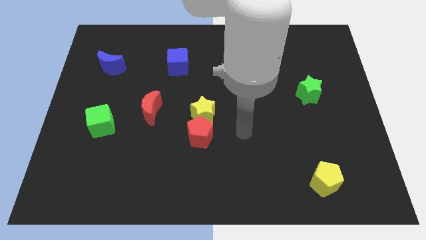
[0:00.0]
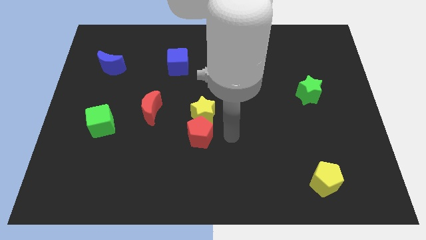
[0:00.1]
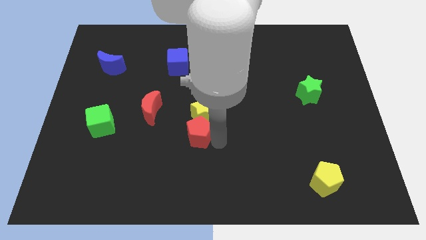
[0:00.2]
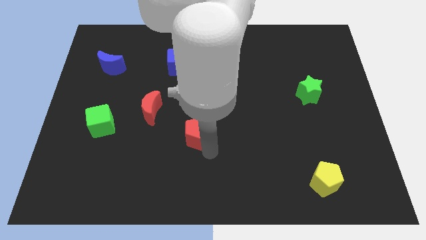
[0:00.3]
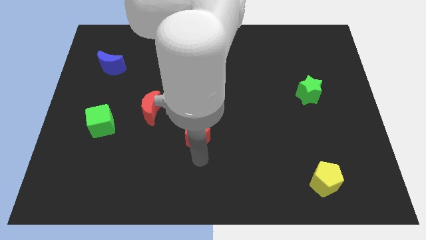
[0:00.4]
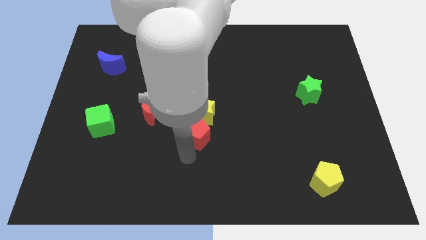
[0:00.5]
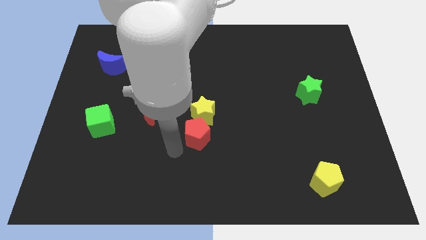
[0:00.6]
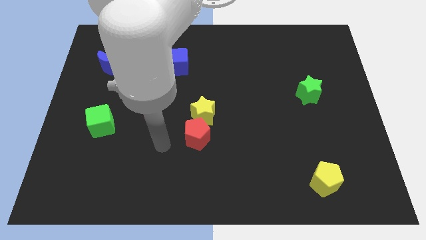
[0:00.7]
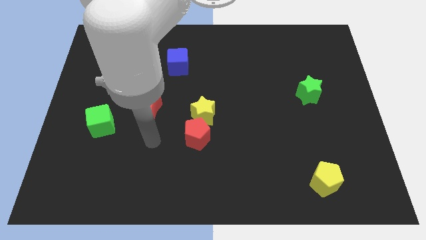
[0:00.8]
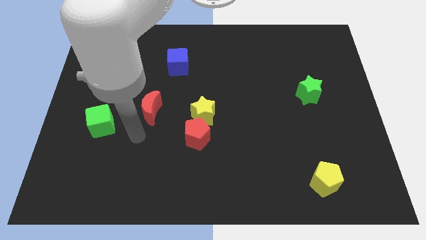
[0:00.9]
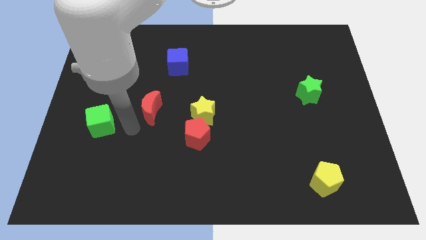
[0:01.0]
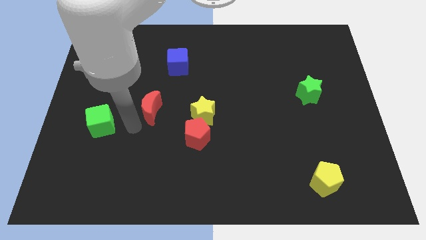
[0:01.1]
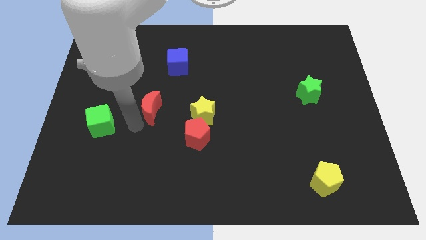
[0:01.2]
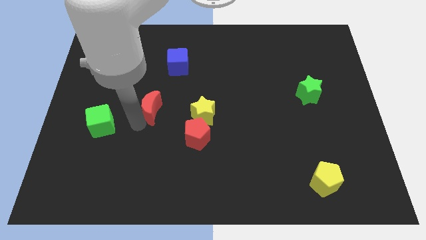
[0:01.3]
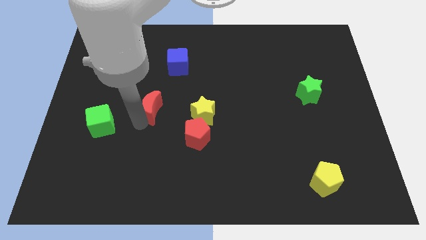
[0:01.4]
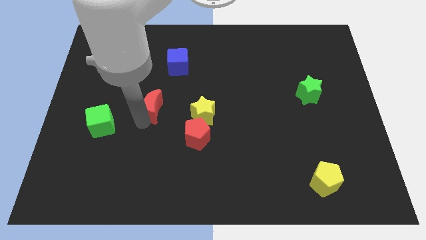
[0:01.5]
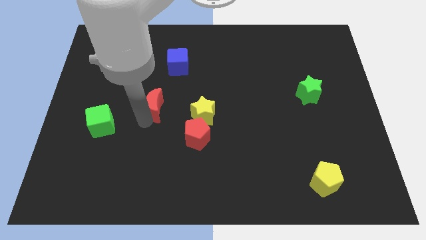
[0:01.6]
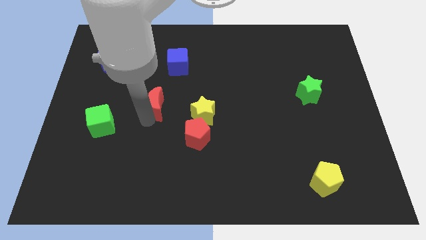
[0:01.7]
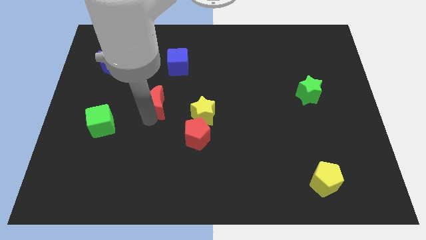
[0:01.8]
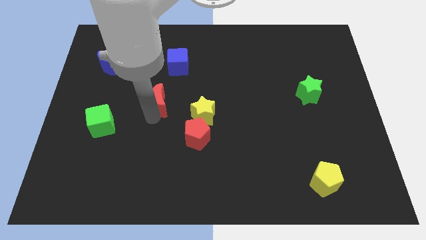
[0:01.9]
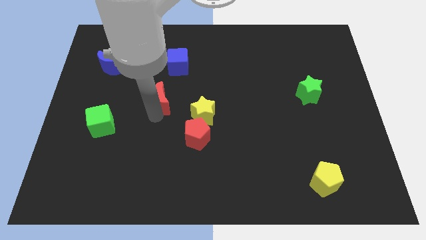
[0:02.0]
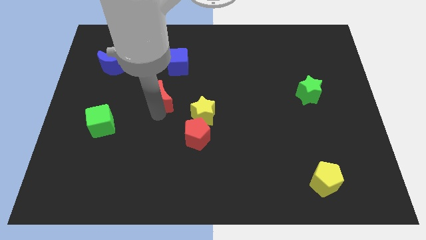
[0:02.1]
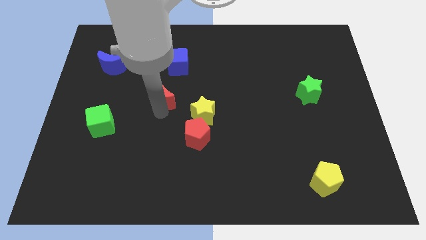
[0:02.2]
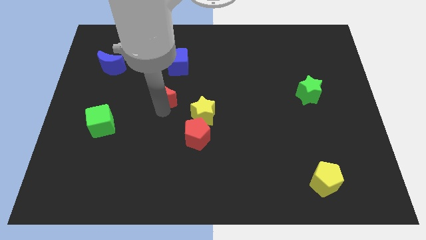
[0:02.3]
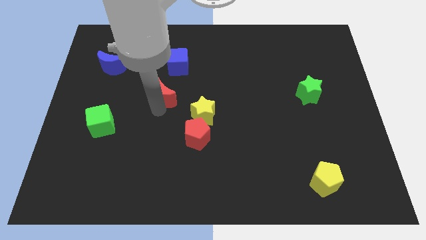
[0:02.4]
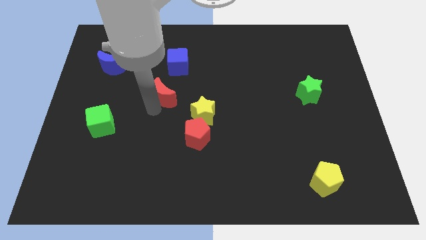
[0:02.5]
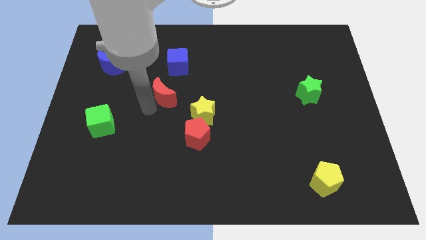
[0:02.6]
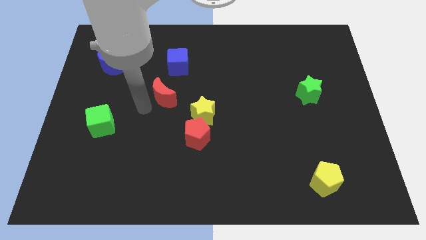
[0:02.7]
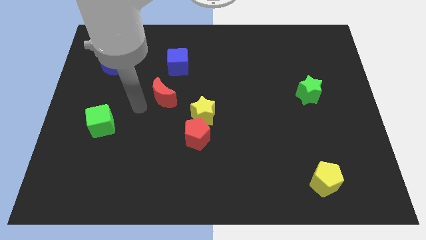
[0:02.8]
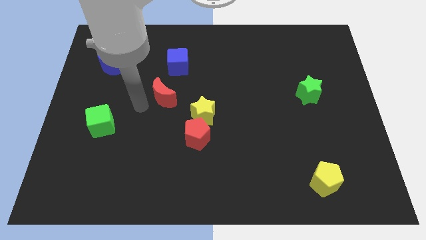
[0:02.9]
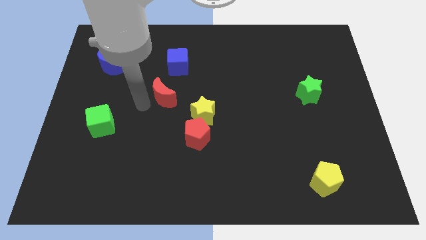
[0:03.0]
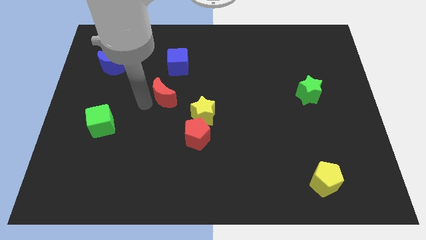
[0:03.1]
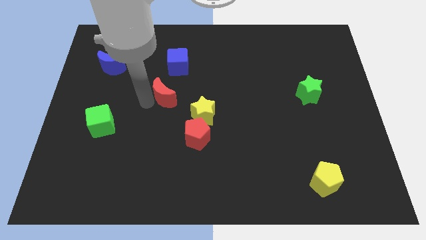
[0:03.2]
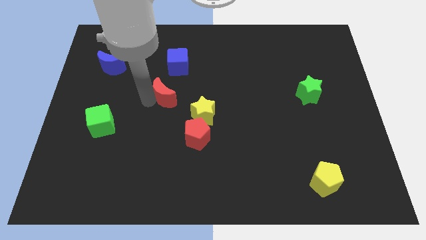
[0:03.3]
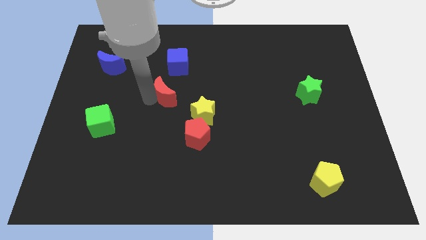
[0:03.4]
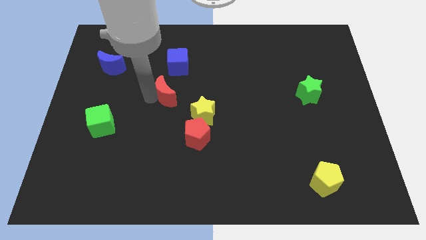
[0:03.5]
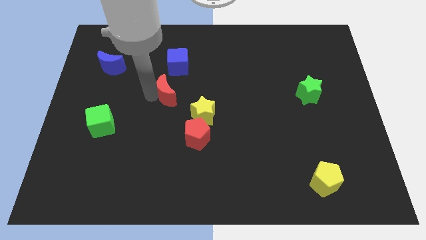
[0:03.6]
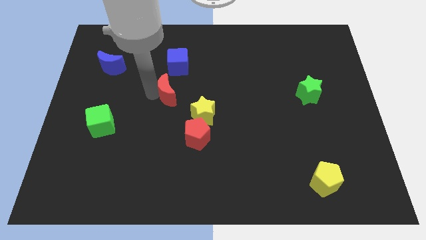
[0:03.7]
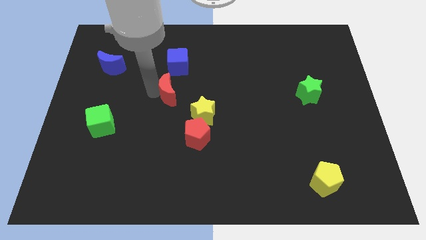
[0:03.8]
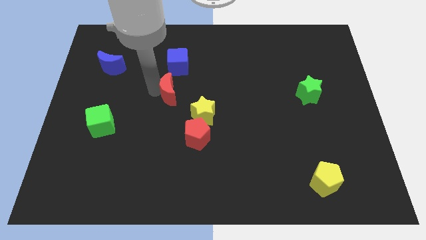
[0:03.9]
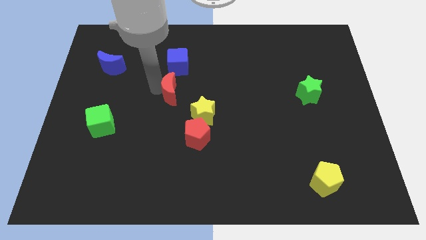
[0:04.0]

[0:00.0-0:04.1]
push the red moon upwards and then to the right slightly

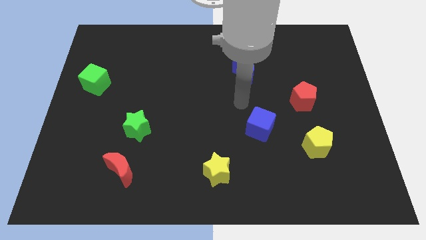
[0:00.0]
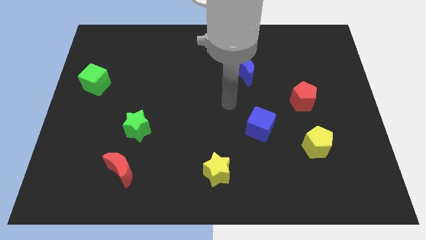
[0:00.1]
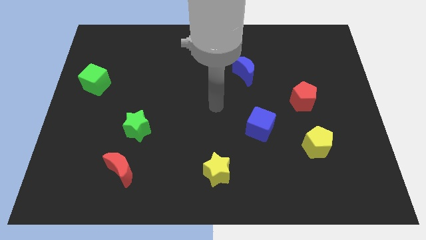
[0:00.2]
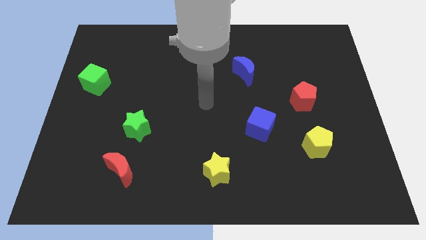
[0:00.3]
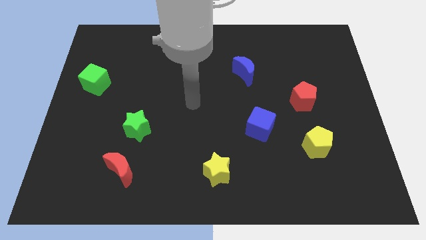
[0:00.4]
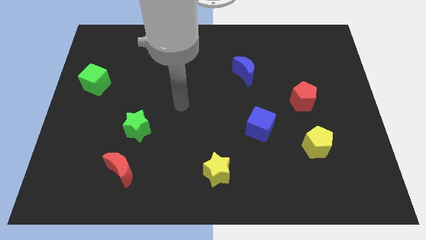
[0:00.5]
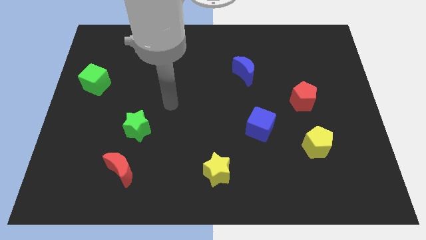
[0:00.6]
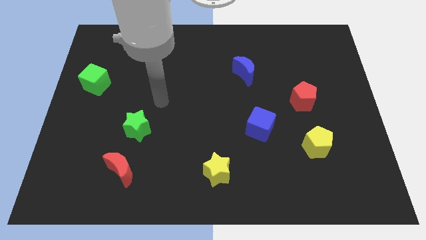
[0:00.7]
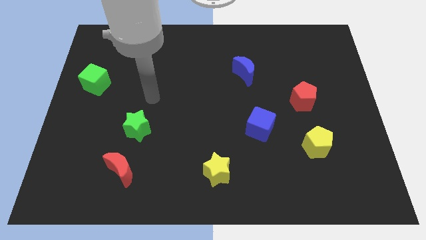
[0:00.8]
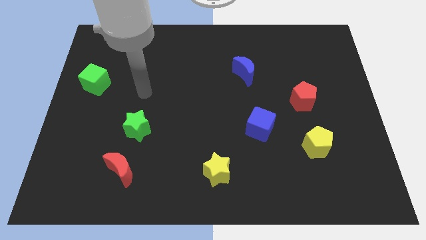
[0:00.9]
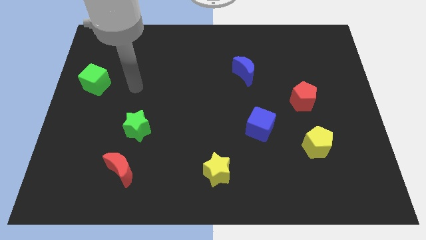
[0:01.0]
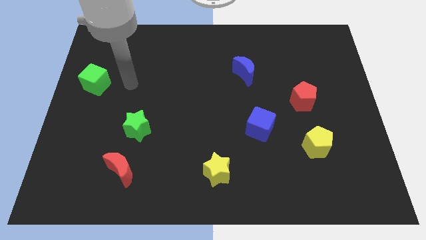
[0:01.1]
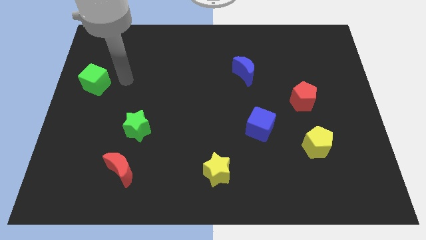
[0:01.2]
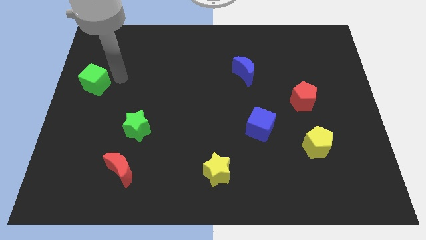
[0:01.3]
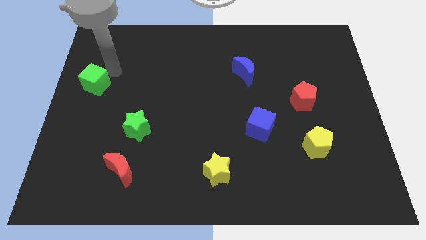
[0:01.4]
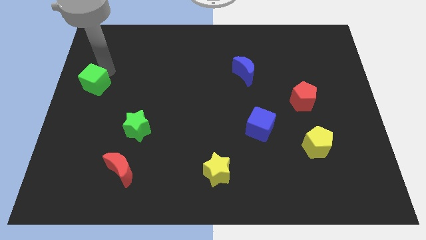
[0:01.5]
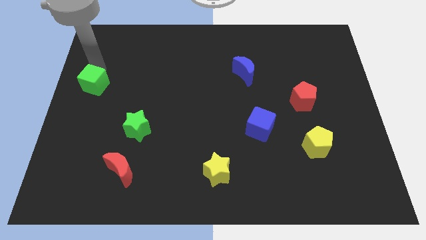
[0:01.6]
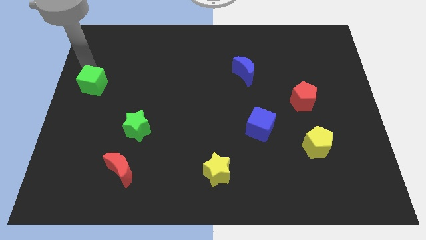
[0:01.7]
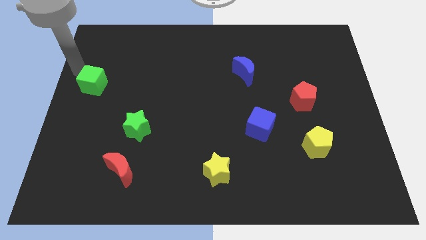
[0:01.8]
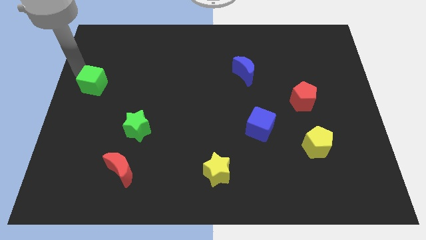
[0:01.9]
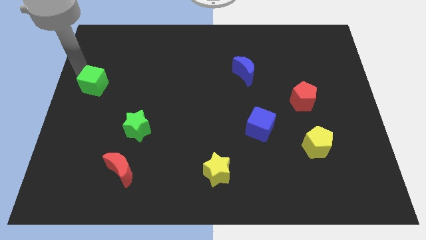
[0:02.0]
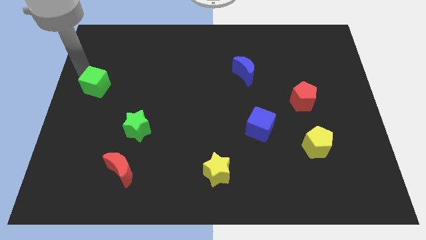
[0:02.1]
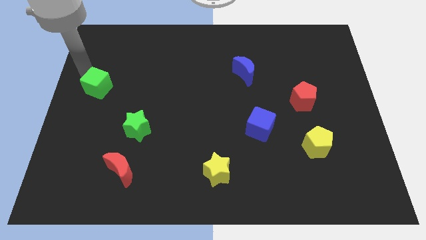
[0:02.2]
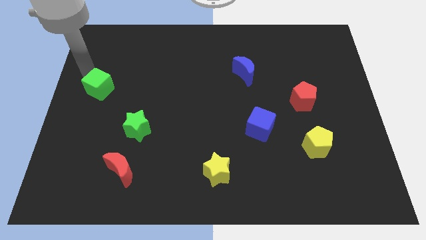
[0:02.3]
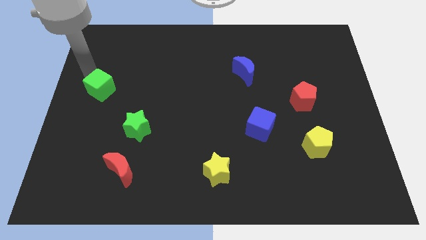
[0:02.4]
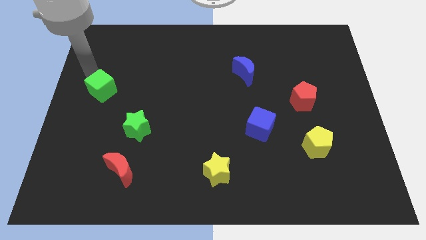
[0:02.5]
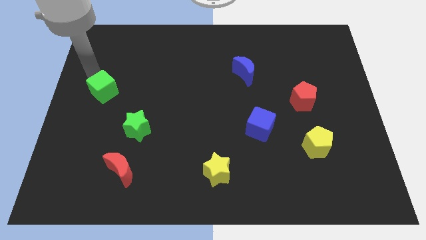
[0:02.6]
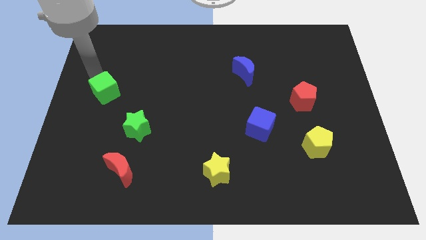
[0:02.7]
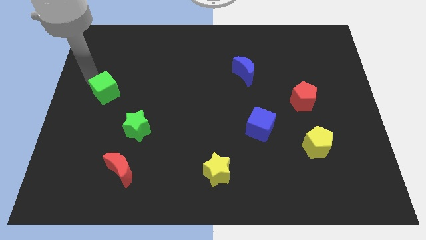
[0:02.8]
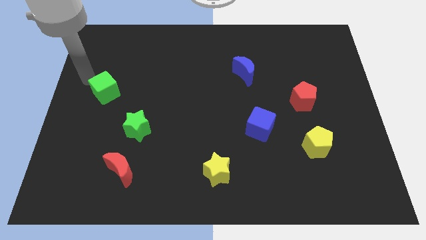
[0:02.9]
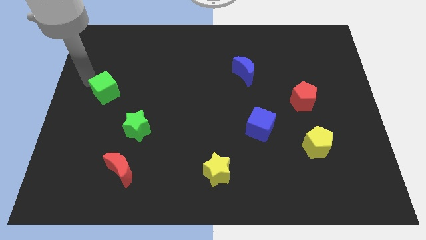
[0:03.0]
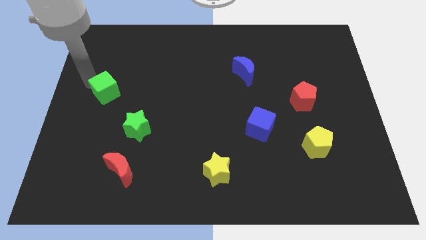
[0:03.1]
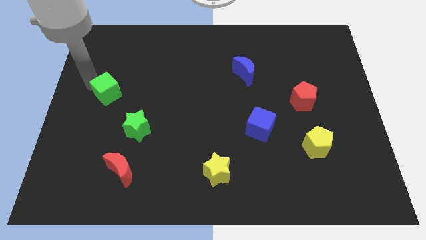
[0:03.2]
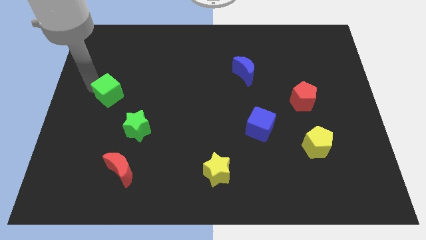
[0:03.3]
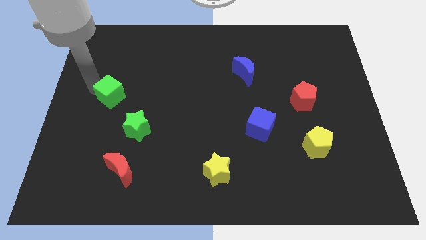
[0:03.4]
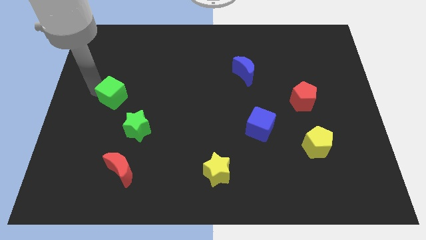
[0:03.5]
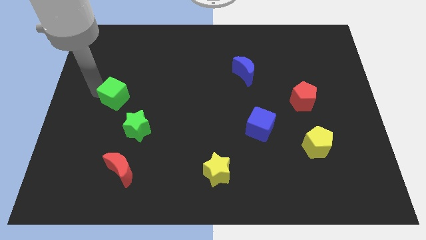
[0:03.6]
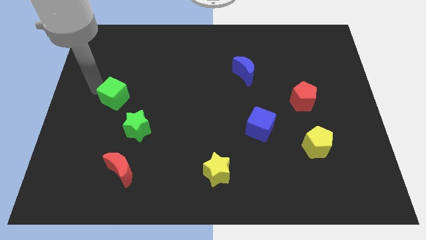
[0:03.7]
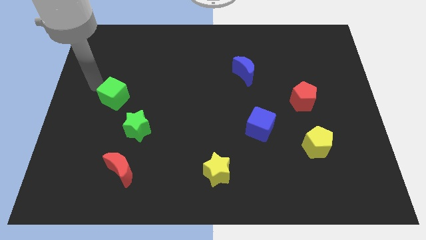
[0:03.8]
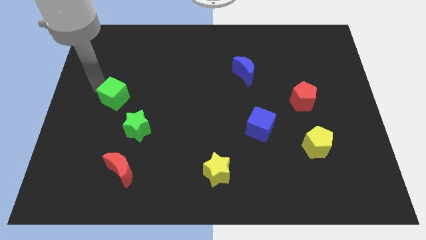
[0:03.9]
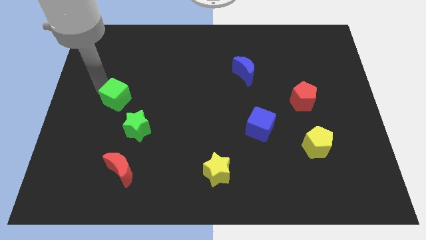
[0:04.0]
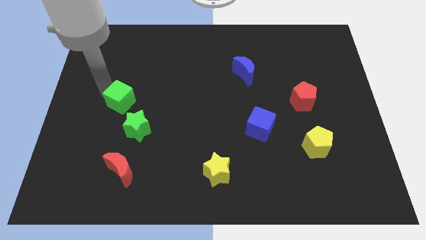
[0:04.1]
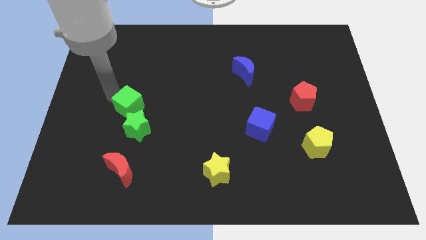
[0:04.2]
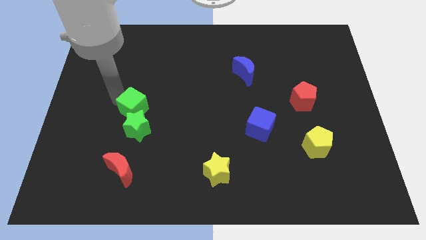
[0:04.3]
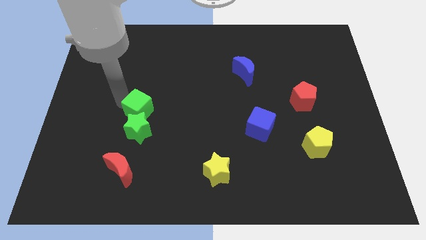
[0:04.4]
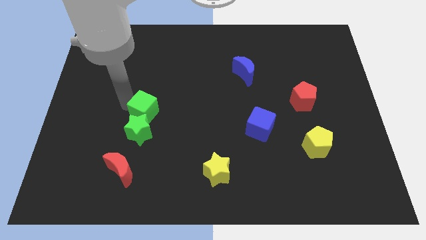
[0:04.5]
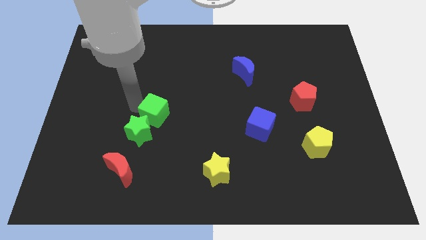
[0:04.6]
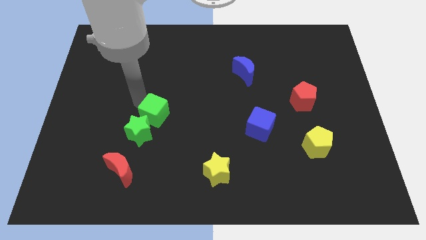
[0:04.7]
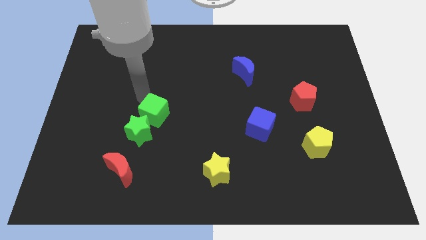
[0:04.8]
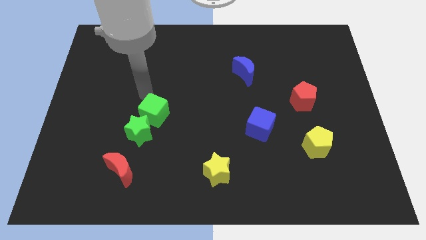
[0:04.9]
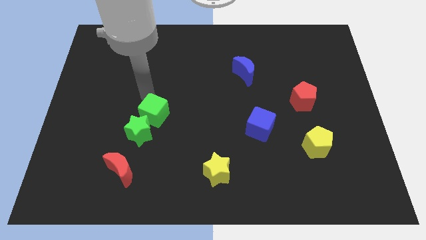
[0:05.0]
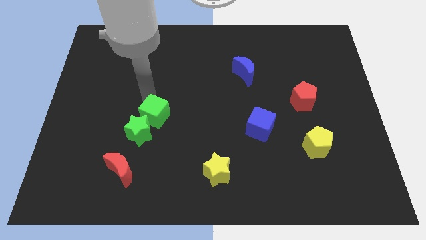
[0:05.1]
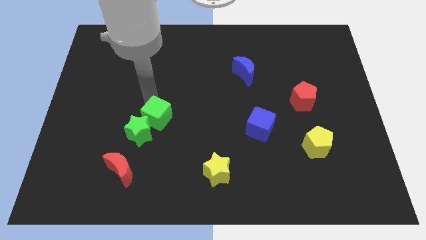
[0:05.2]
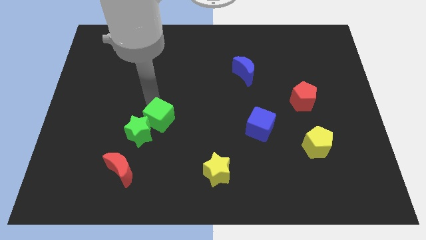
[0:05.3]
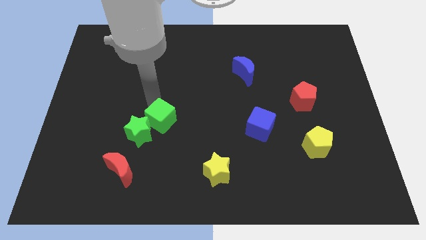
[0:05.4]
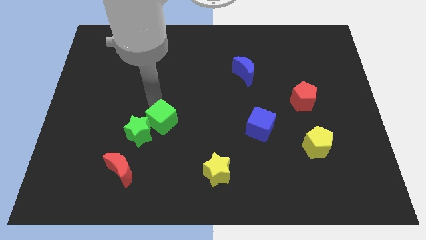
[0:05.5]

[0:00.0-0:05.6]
slide the green cube downwards and then right
